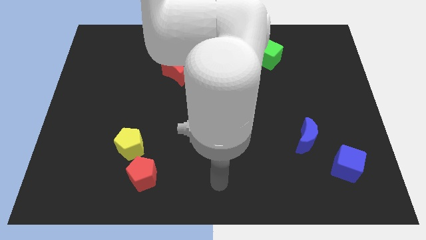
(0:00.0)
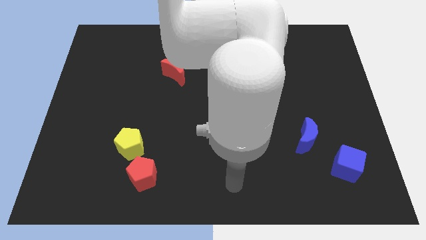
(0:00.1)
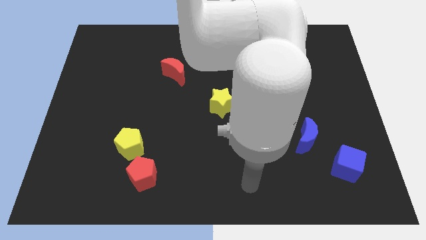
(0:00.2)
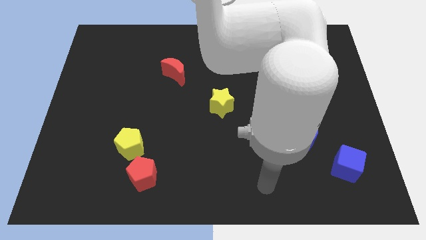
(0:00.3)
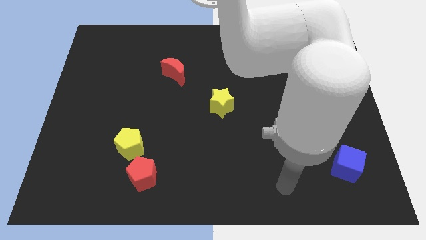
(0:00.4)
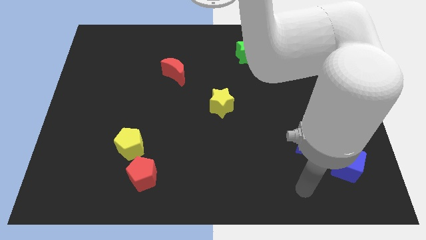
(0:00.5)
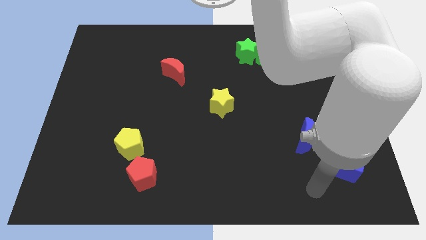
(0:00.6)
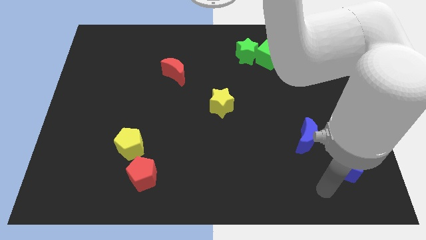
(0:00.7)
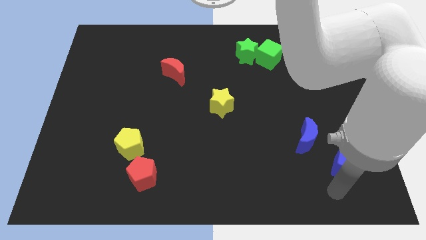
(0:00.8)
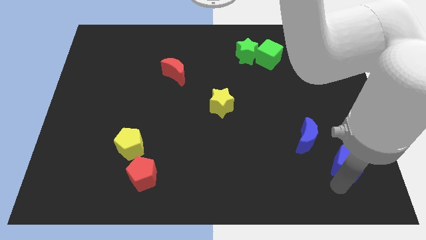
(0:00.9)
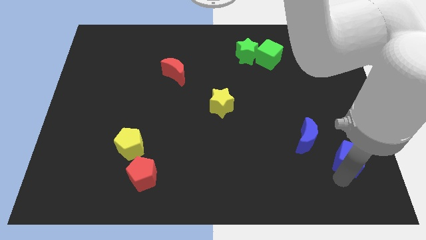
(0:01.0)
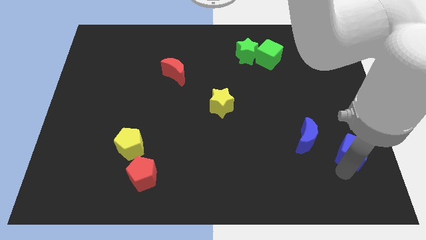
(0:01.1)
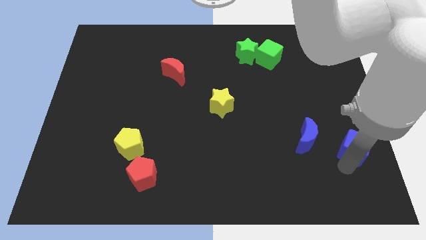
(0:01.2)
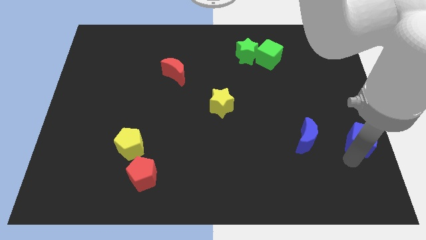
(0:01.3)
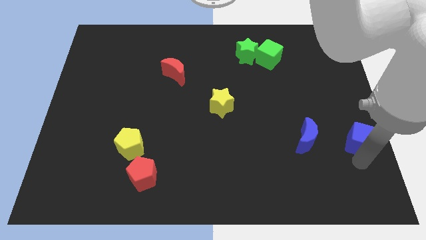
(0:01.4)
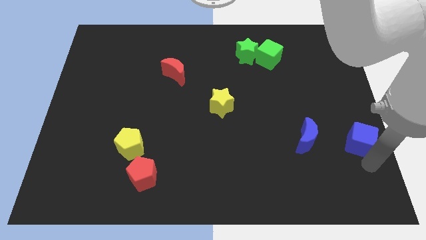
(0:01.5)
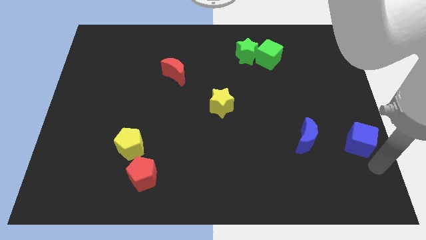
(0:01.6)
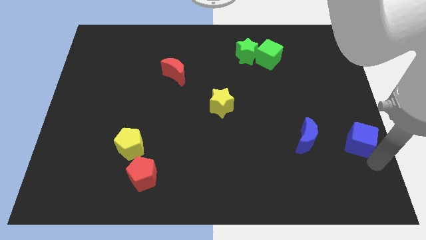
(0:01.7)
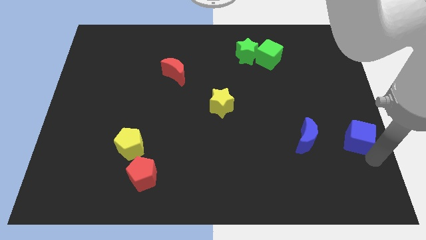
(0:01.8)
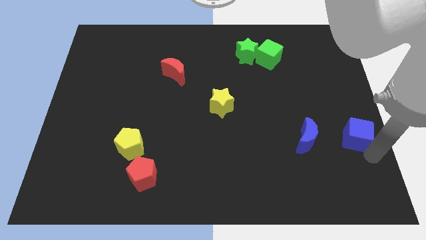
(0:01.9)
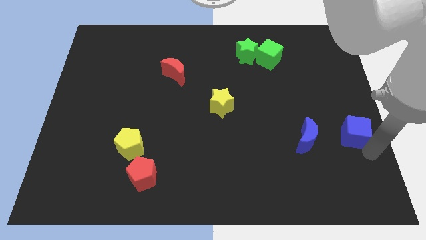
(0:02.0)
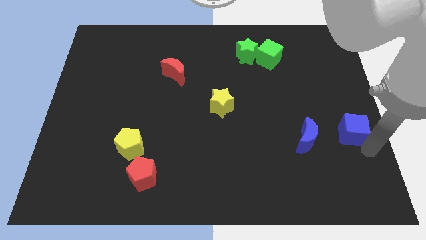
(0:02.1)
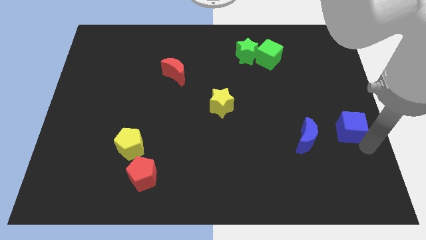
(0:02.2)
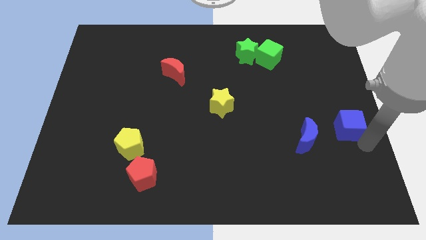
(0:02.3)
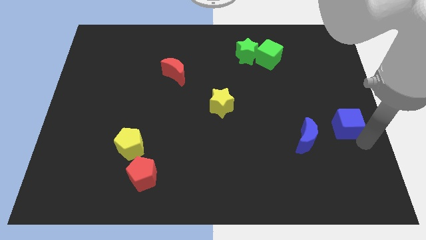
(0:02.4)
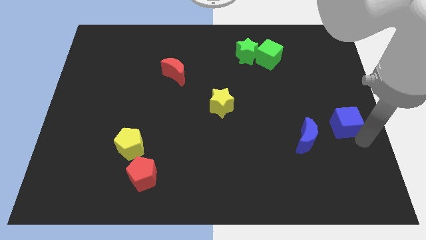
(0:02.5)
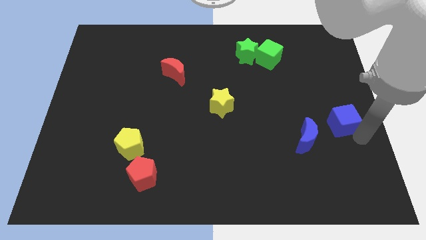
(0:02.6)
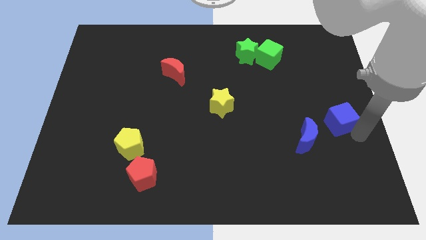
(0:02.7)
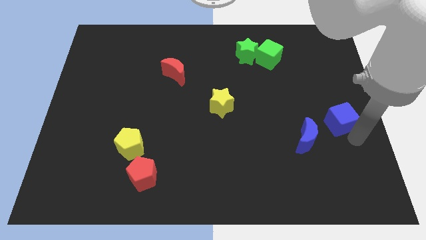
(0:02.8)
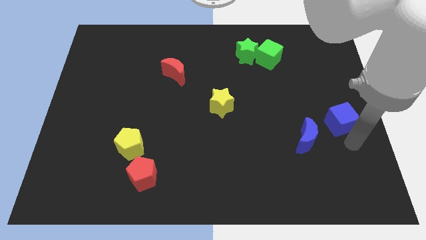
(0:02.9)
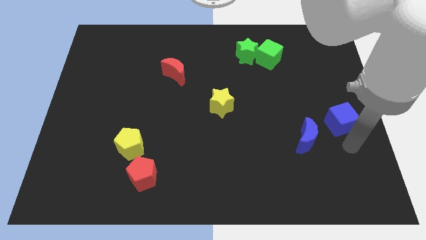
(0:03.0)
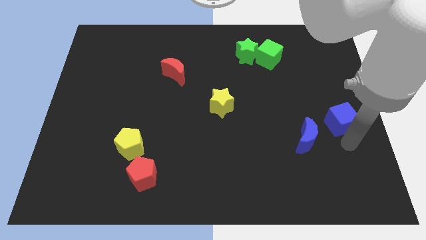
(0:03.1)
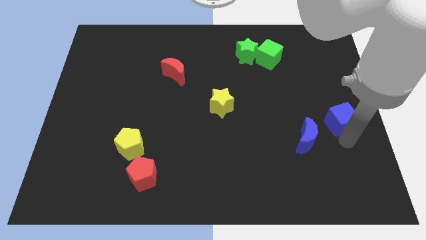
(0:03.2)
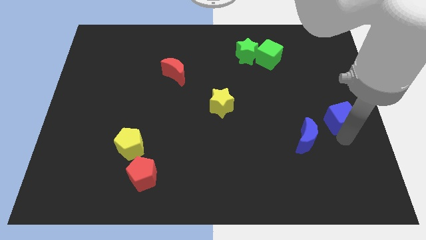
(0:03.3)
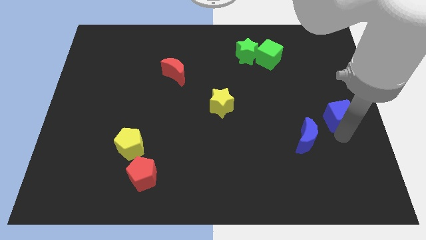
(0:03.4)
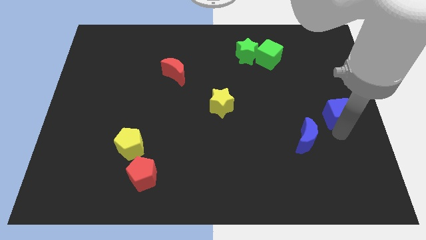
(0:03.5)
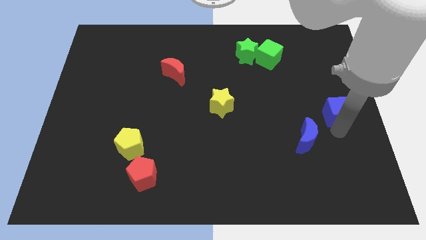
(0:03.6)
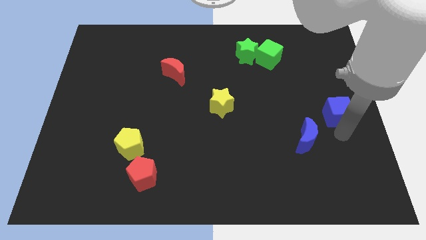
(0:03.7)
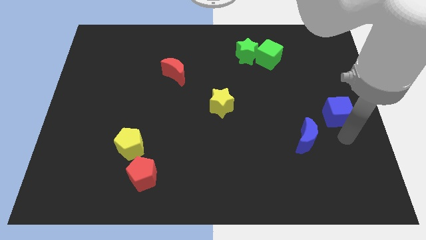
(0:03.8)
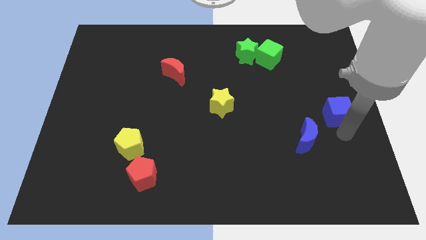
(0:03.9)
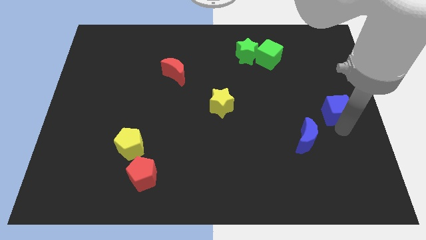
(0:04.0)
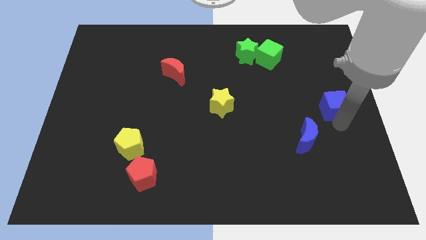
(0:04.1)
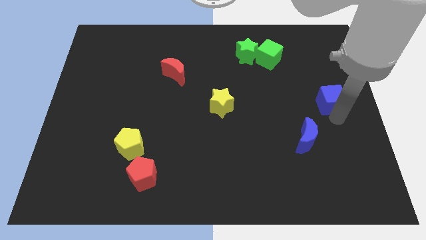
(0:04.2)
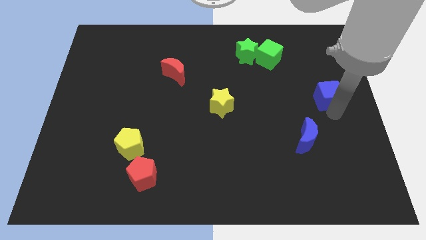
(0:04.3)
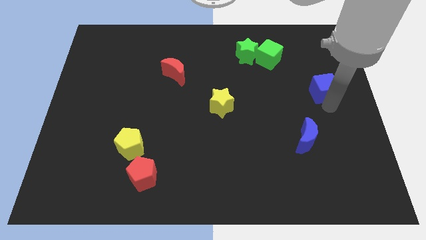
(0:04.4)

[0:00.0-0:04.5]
slide the blue cube upwards

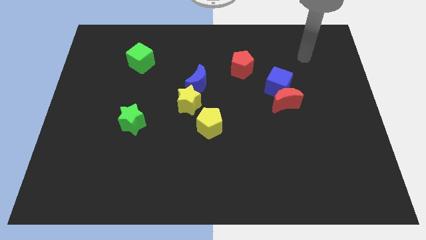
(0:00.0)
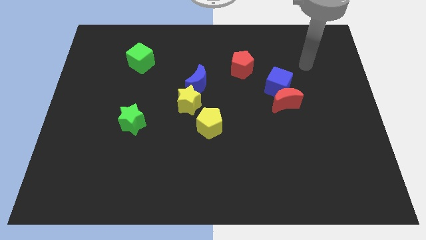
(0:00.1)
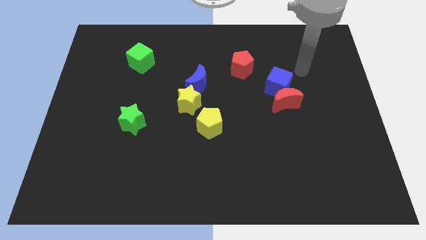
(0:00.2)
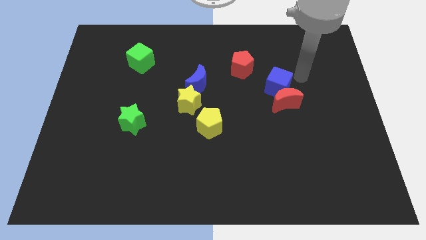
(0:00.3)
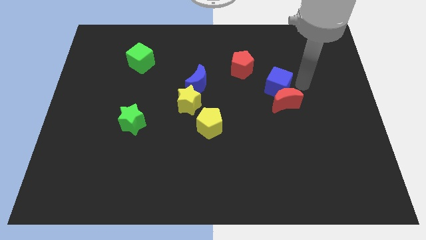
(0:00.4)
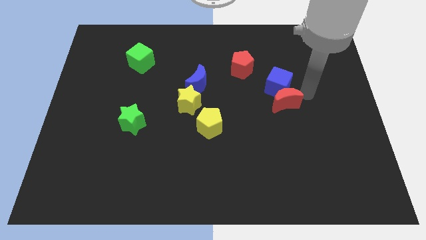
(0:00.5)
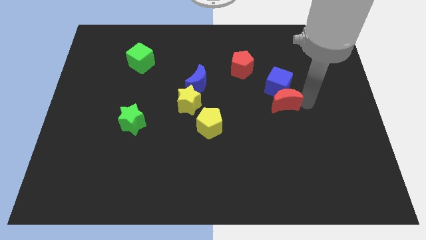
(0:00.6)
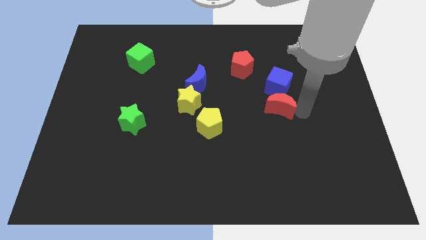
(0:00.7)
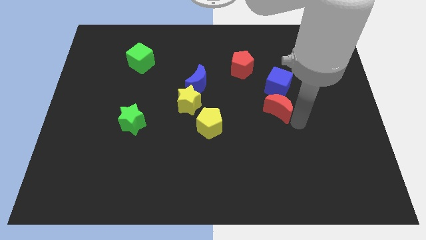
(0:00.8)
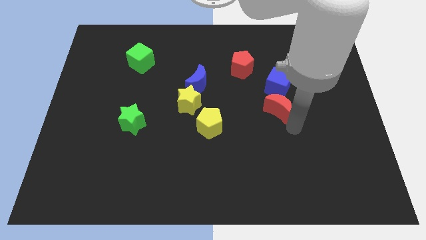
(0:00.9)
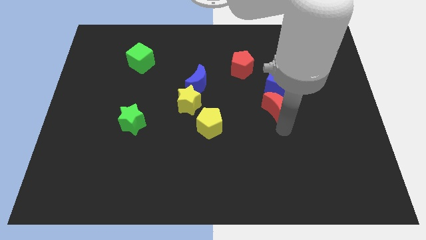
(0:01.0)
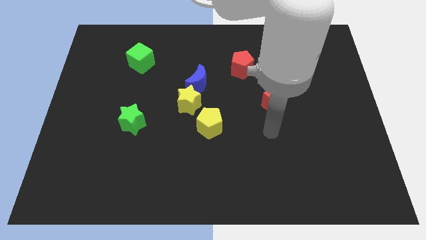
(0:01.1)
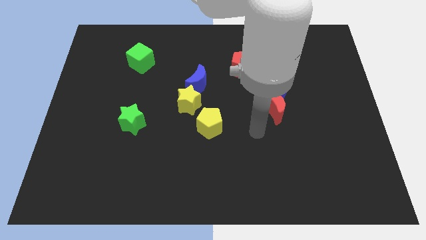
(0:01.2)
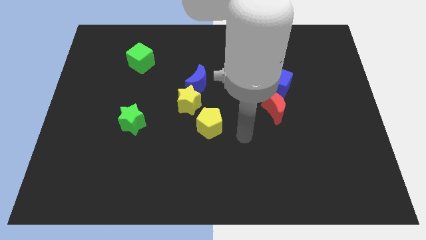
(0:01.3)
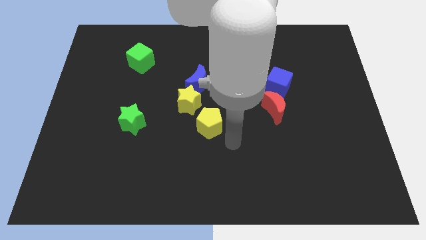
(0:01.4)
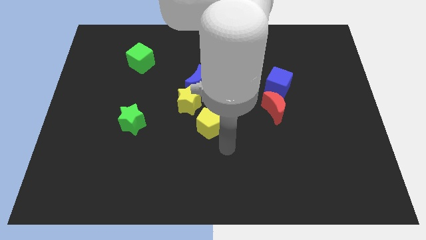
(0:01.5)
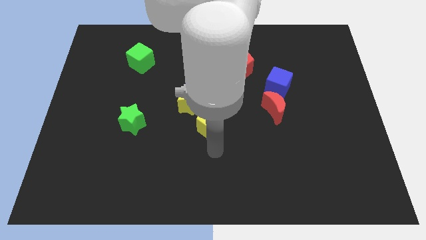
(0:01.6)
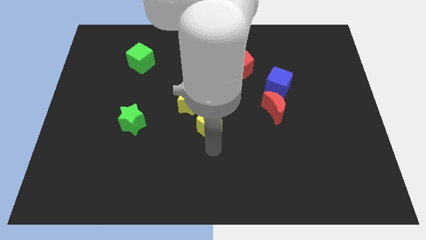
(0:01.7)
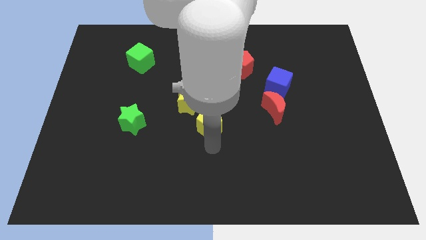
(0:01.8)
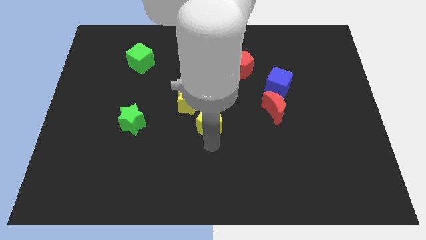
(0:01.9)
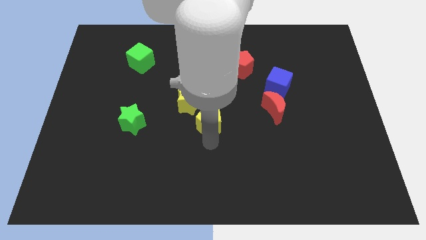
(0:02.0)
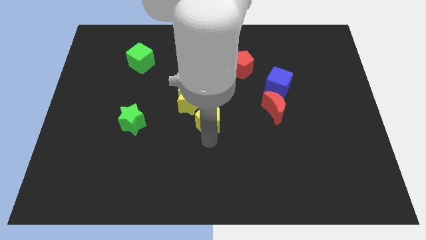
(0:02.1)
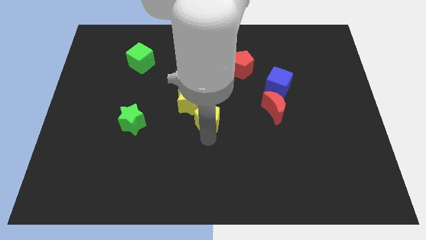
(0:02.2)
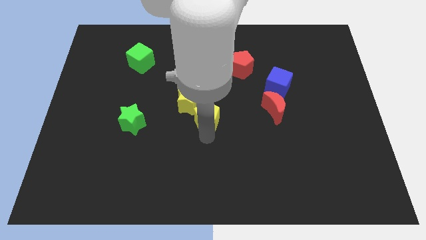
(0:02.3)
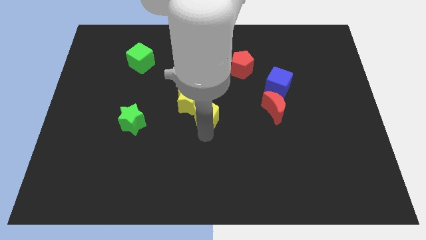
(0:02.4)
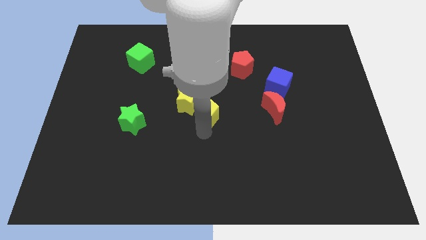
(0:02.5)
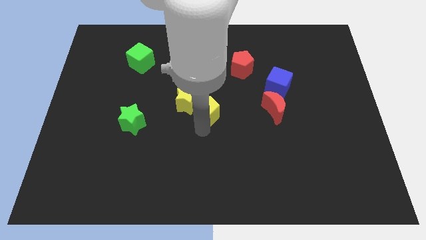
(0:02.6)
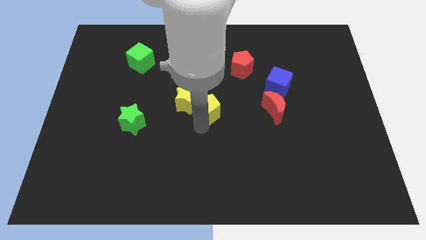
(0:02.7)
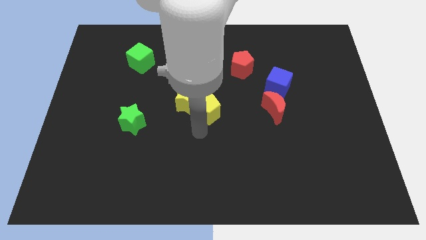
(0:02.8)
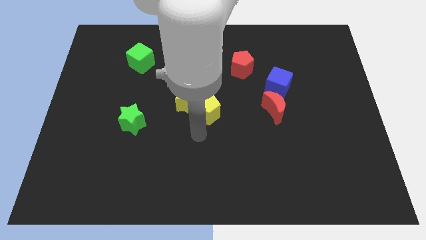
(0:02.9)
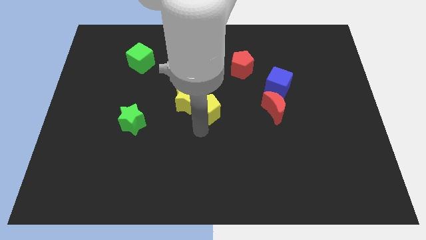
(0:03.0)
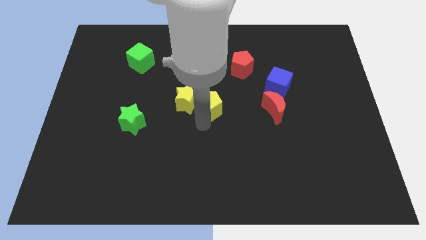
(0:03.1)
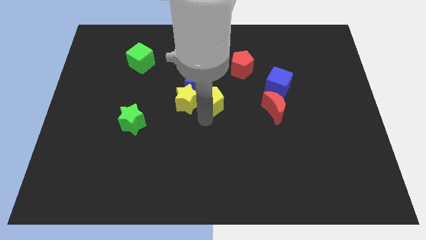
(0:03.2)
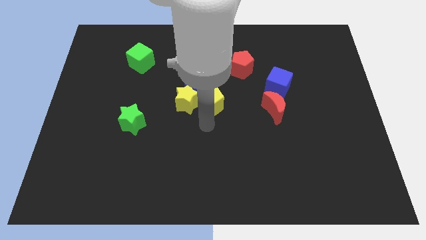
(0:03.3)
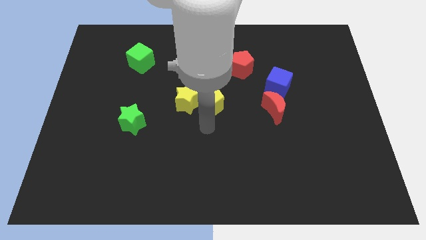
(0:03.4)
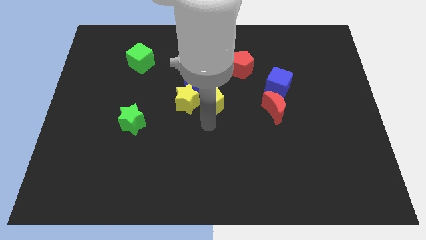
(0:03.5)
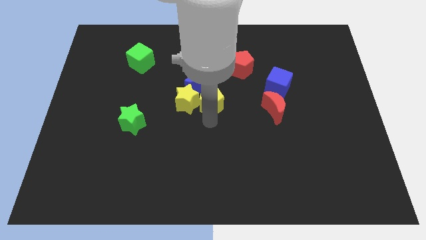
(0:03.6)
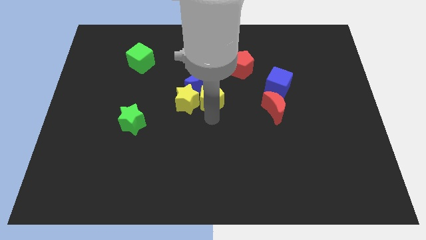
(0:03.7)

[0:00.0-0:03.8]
move the yellow pentagon upwards a bit
